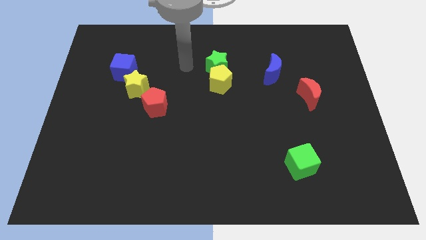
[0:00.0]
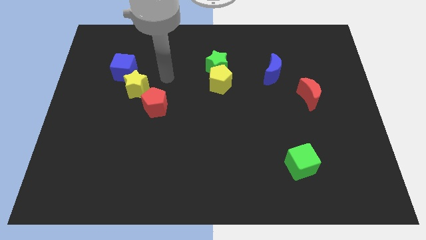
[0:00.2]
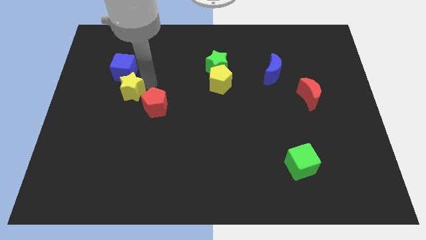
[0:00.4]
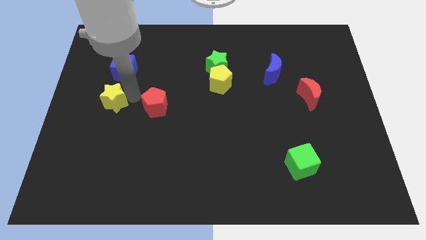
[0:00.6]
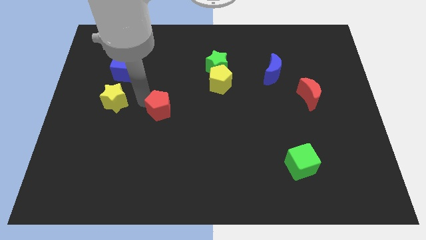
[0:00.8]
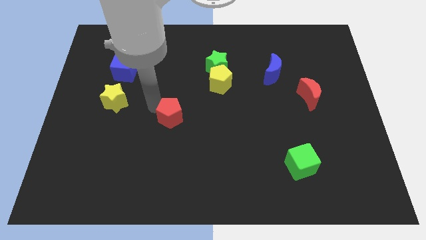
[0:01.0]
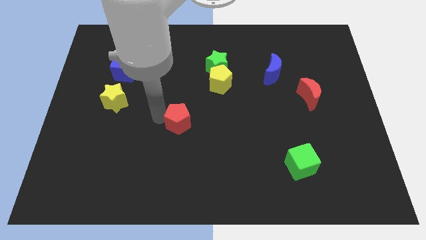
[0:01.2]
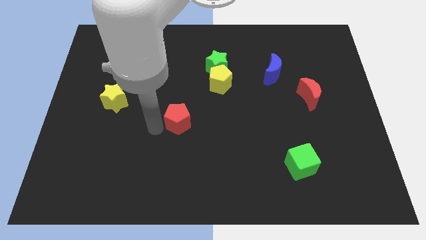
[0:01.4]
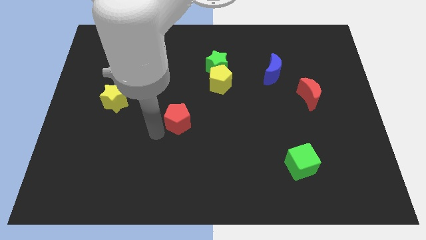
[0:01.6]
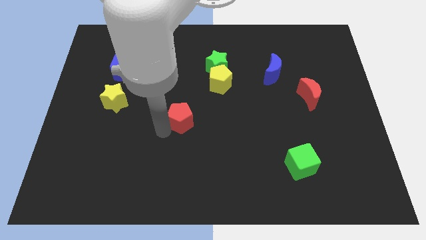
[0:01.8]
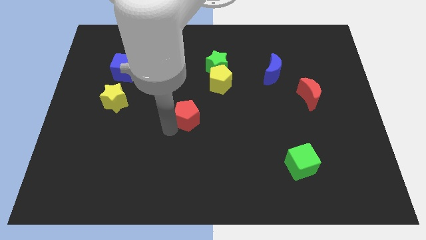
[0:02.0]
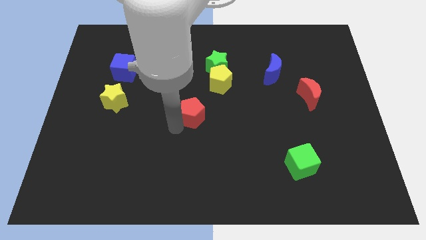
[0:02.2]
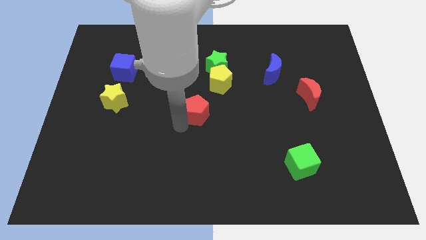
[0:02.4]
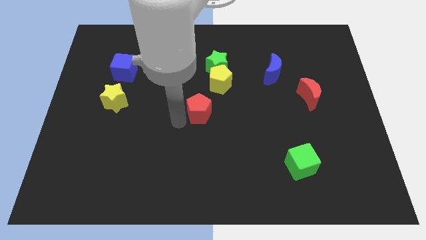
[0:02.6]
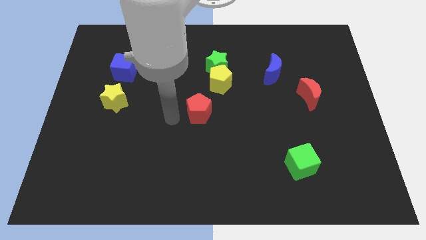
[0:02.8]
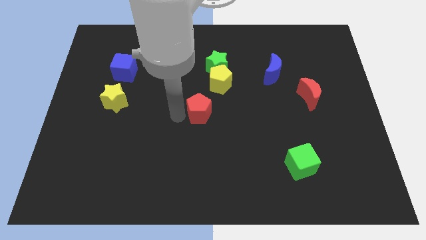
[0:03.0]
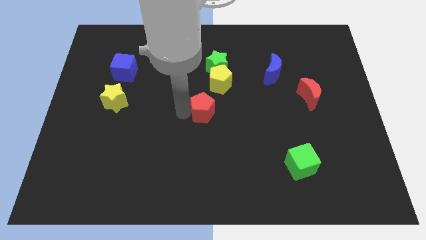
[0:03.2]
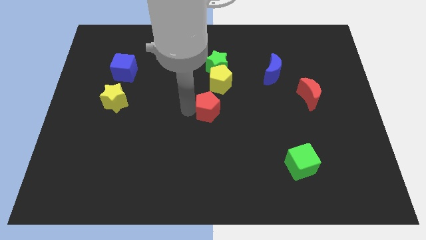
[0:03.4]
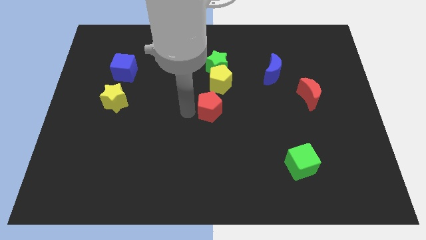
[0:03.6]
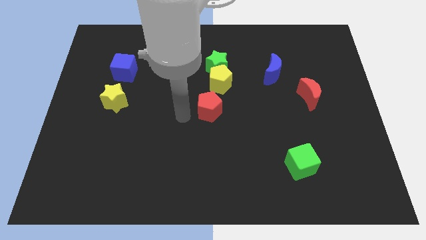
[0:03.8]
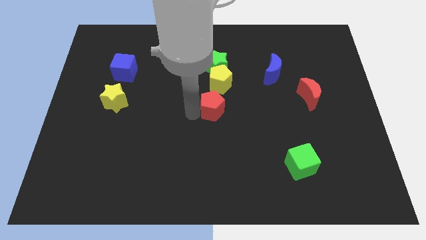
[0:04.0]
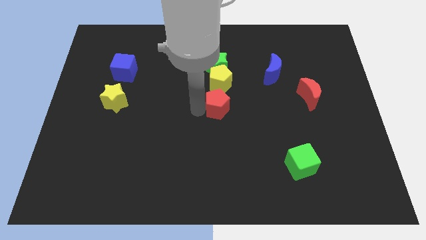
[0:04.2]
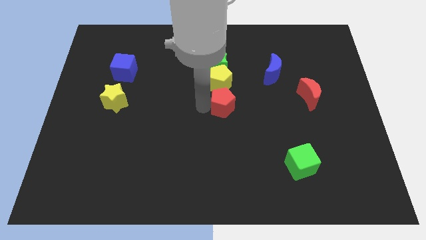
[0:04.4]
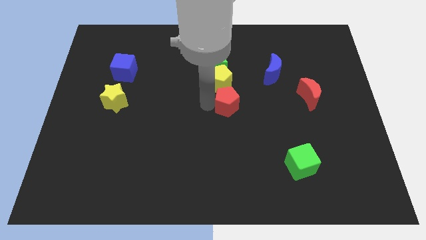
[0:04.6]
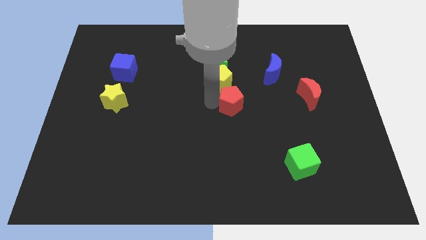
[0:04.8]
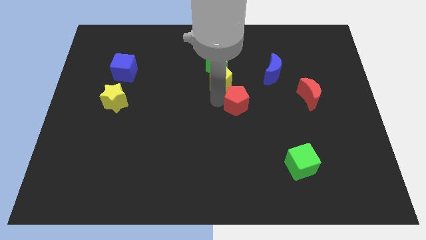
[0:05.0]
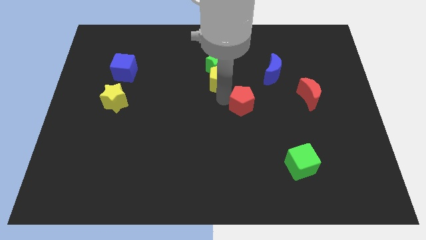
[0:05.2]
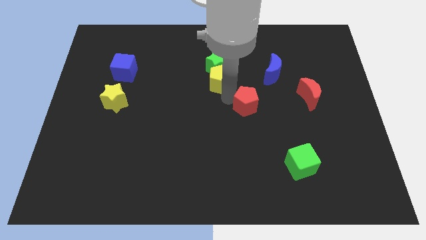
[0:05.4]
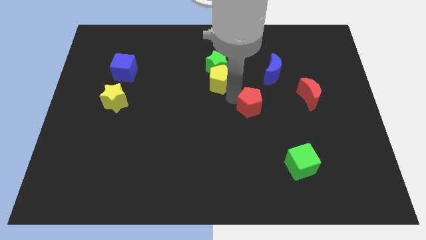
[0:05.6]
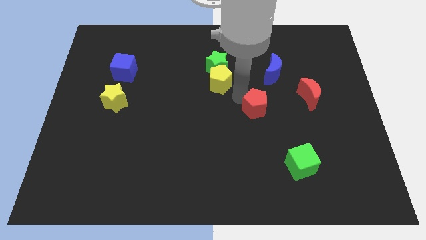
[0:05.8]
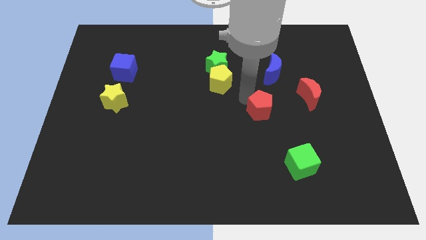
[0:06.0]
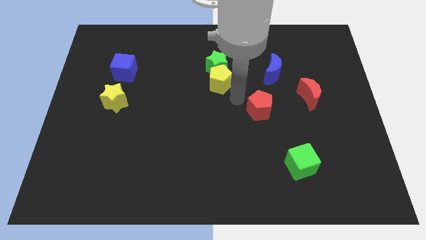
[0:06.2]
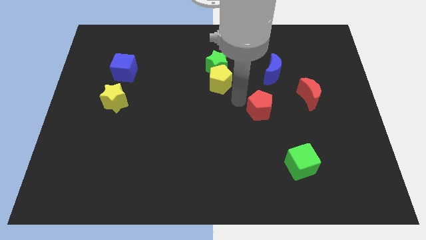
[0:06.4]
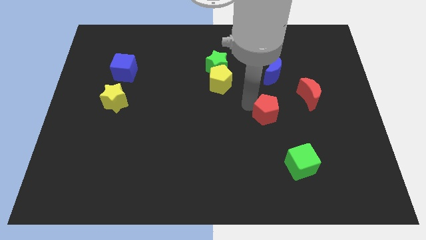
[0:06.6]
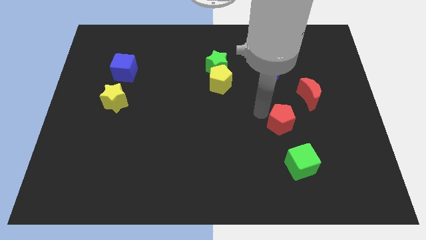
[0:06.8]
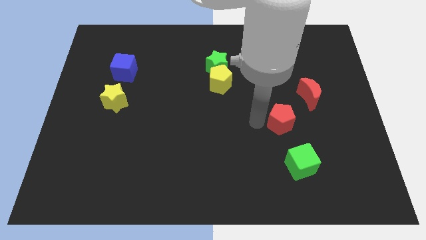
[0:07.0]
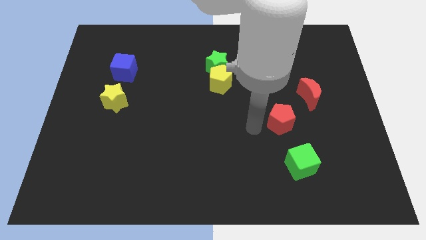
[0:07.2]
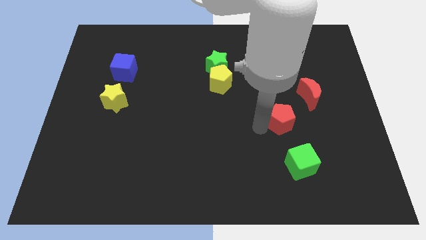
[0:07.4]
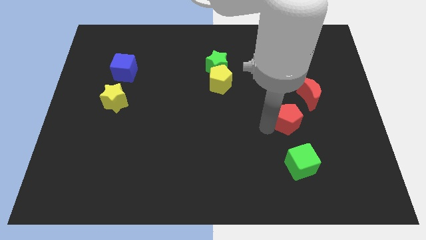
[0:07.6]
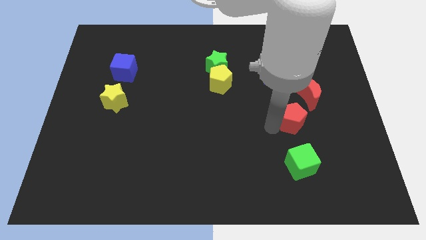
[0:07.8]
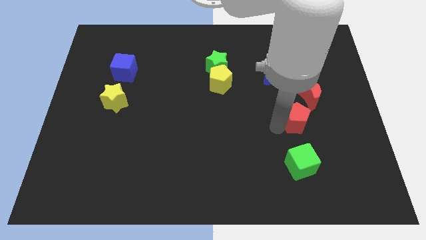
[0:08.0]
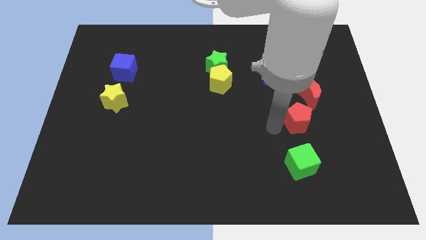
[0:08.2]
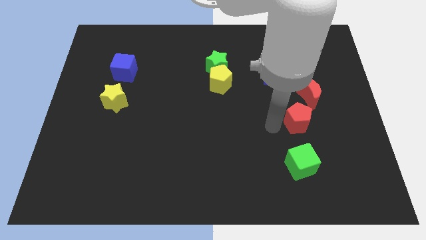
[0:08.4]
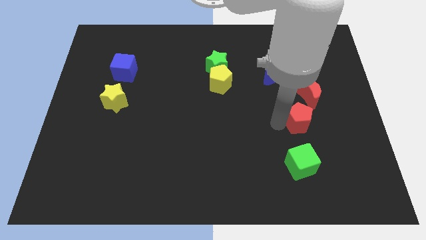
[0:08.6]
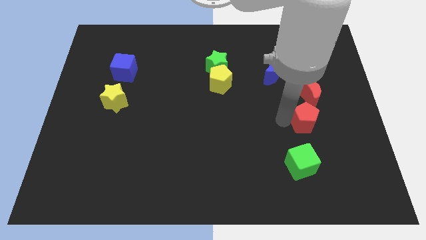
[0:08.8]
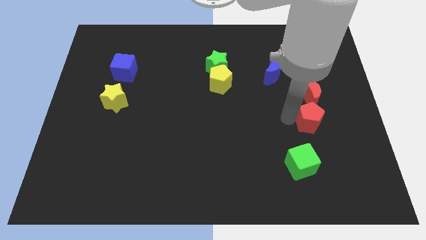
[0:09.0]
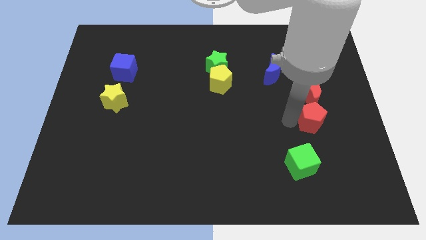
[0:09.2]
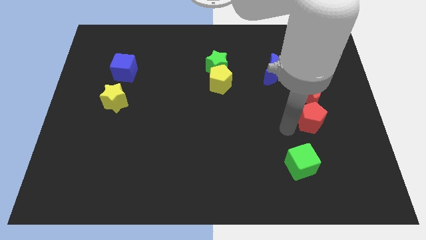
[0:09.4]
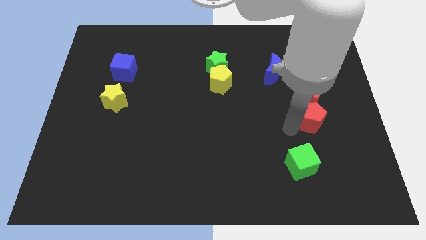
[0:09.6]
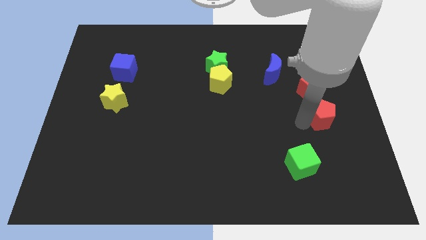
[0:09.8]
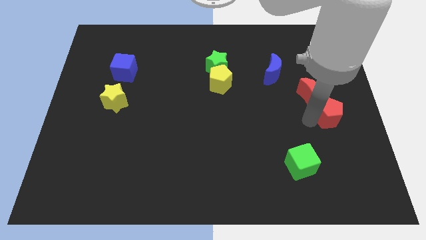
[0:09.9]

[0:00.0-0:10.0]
slide the red pentagon to the right side

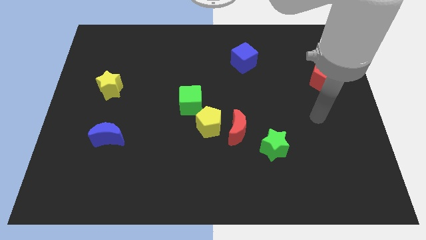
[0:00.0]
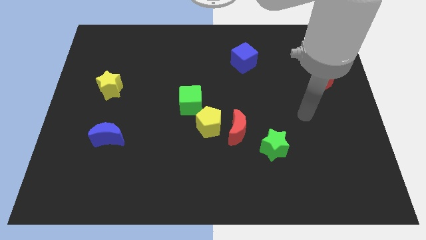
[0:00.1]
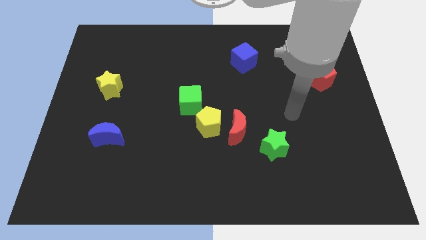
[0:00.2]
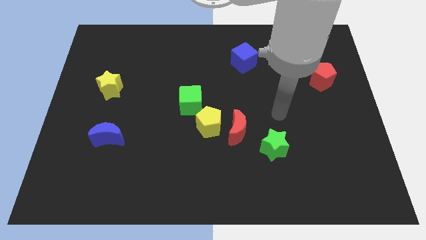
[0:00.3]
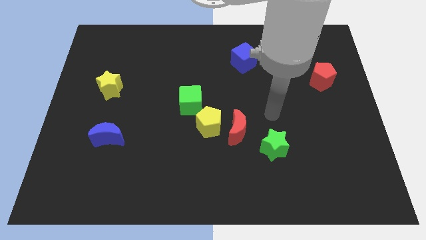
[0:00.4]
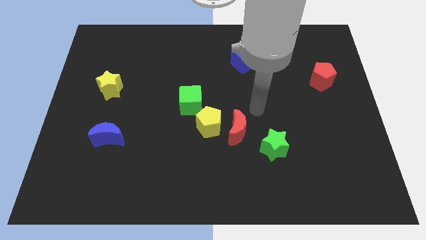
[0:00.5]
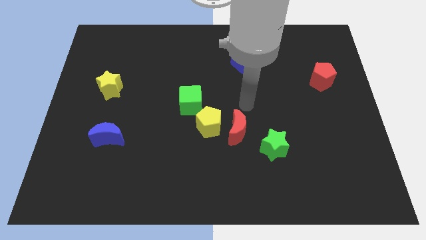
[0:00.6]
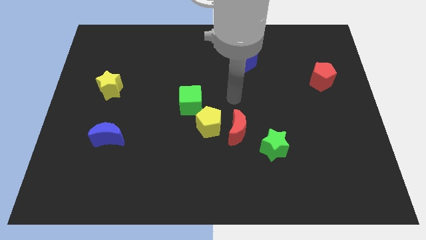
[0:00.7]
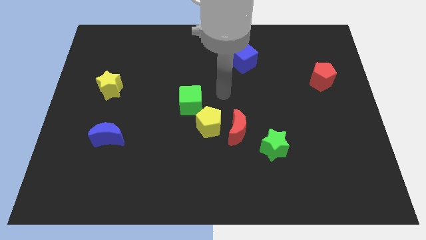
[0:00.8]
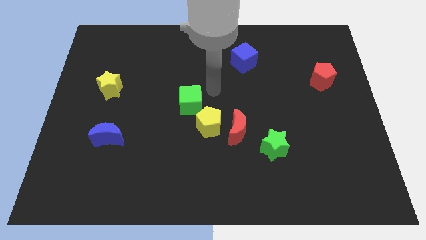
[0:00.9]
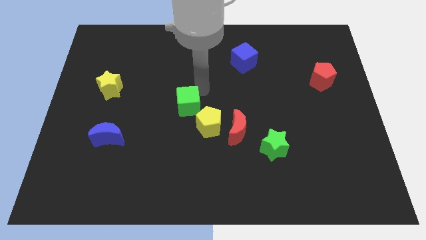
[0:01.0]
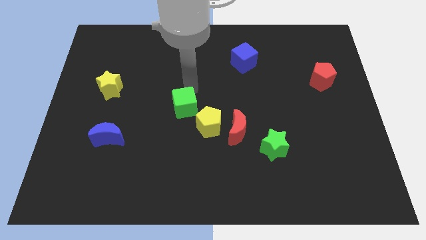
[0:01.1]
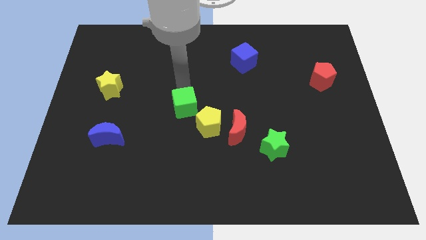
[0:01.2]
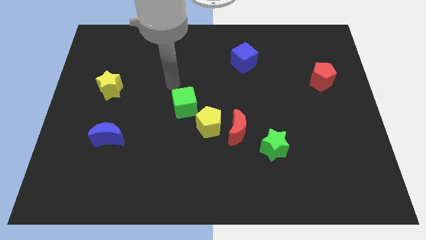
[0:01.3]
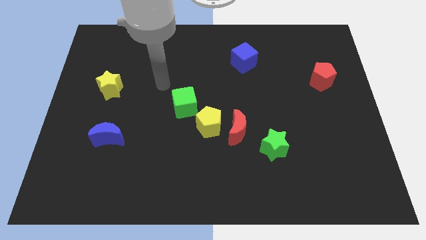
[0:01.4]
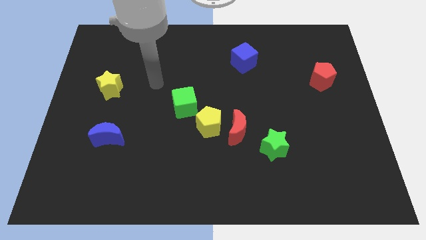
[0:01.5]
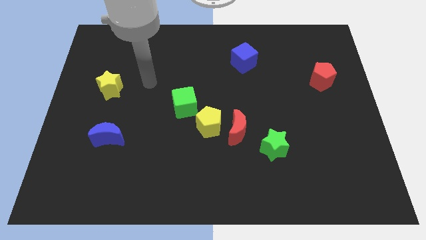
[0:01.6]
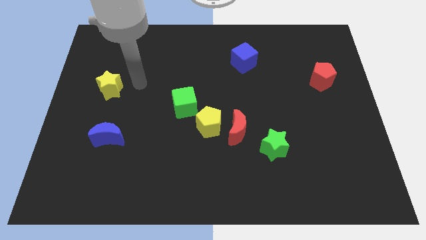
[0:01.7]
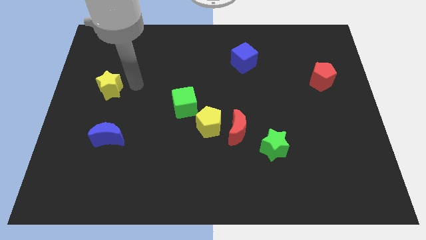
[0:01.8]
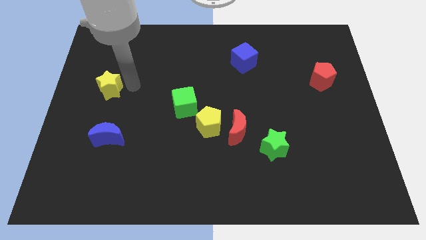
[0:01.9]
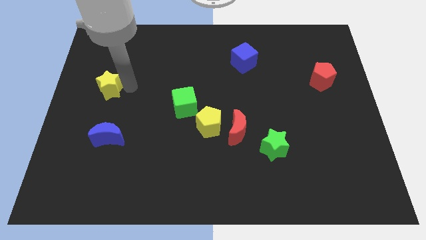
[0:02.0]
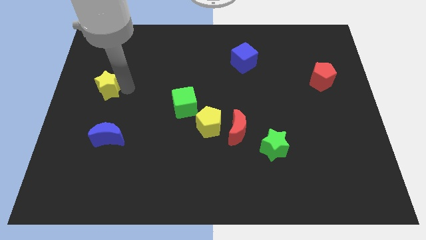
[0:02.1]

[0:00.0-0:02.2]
move the yellow star to the left side
